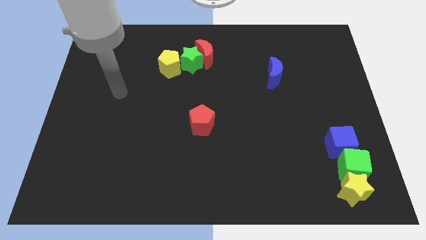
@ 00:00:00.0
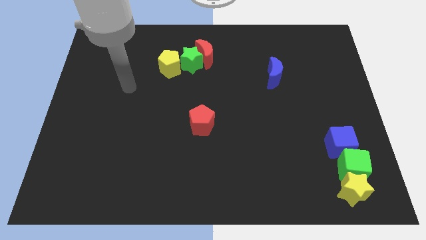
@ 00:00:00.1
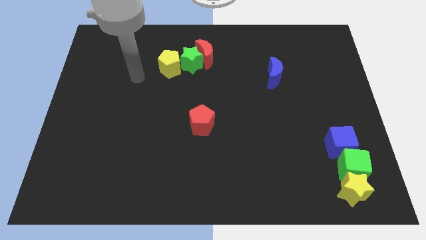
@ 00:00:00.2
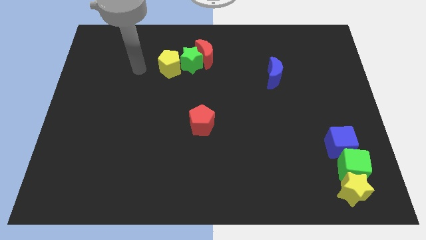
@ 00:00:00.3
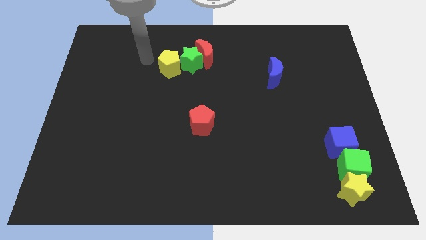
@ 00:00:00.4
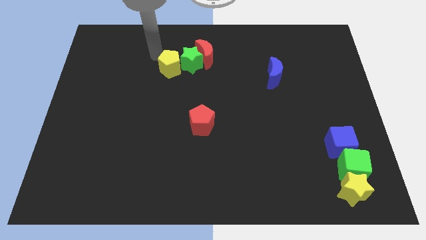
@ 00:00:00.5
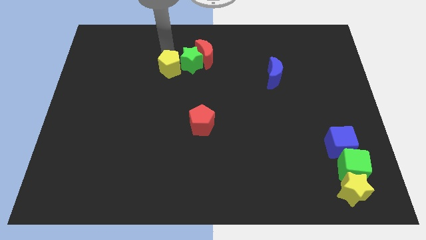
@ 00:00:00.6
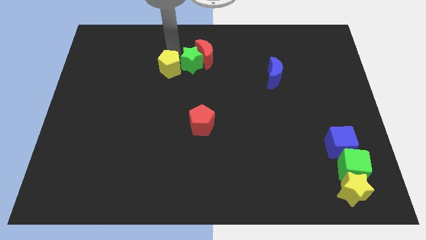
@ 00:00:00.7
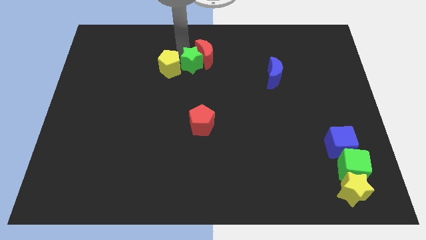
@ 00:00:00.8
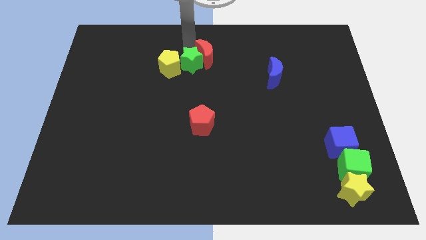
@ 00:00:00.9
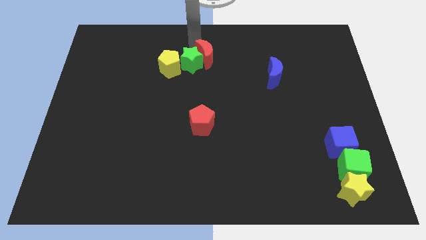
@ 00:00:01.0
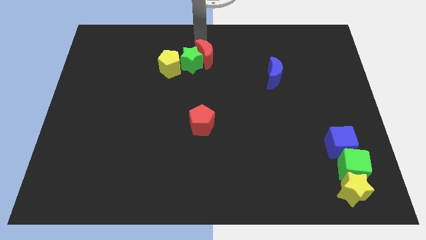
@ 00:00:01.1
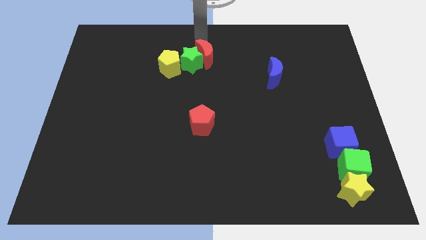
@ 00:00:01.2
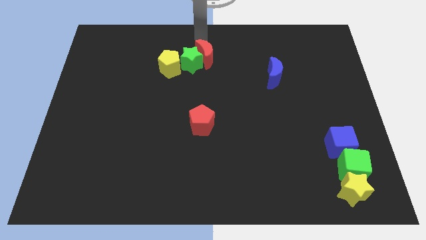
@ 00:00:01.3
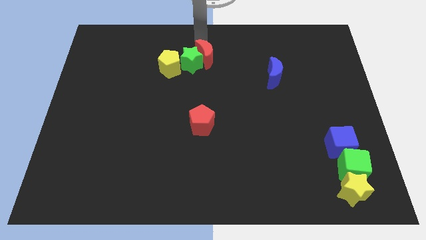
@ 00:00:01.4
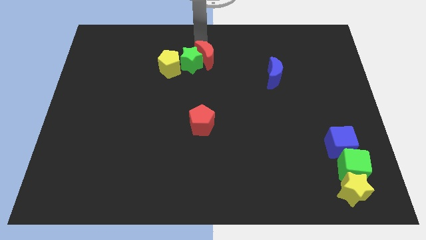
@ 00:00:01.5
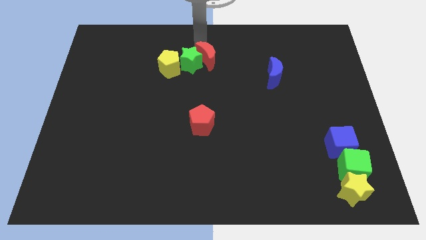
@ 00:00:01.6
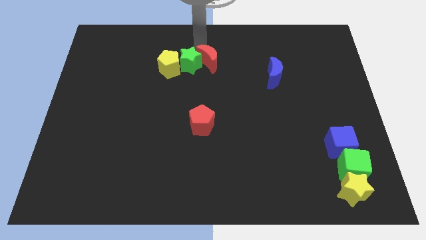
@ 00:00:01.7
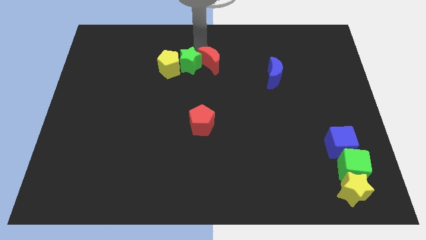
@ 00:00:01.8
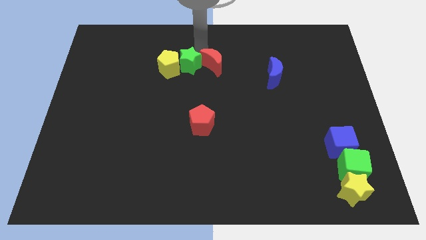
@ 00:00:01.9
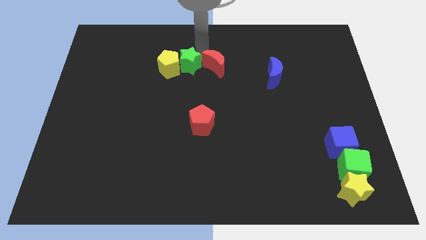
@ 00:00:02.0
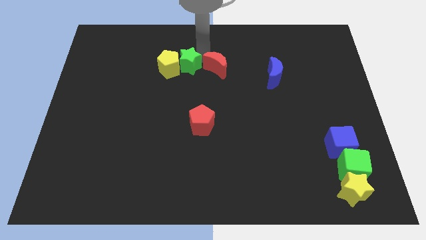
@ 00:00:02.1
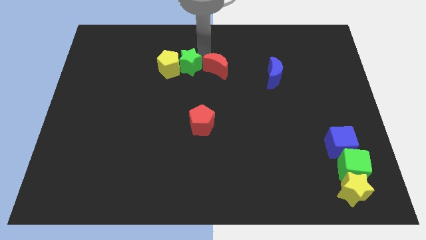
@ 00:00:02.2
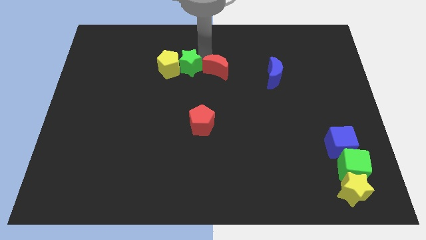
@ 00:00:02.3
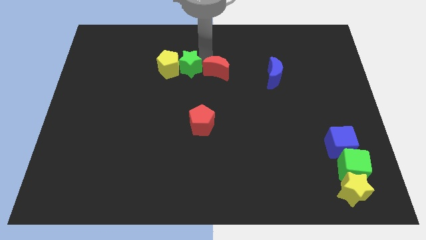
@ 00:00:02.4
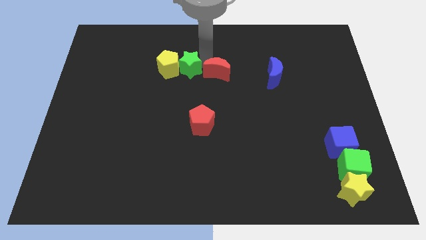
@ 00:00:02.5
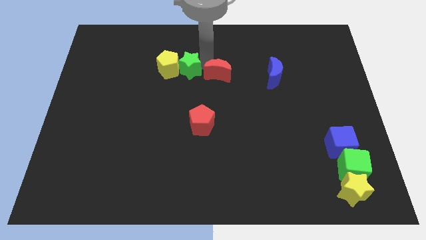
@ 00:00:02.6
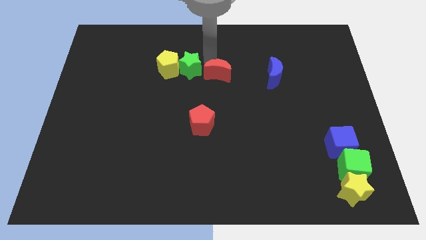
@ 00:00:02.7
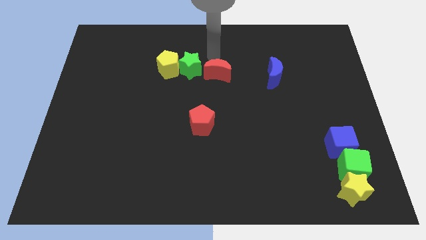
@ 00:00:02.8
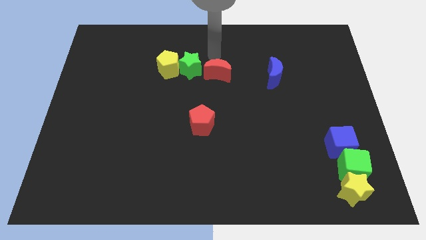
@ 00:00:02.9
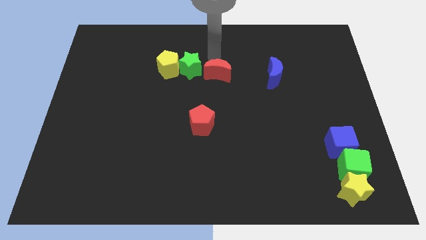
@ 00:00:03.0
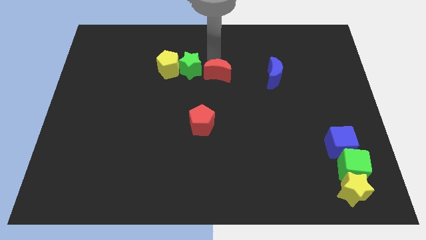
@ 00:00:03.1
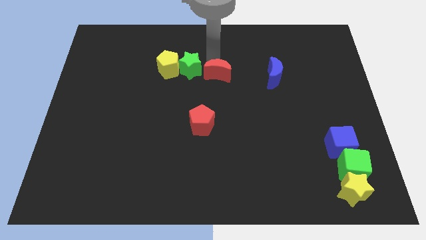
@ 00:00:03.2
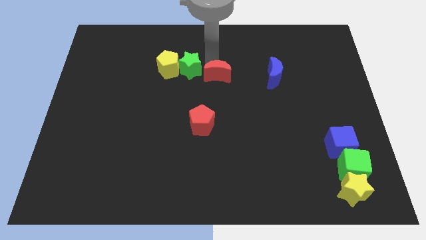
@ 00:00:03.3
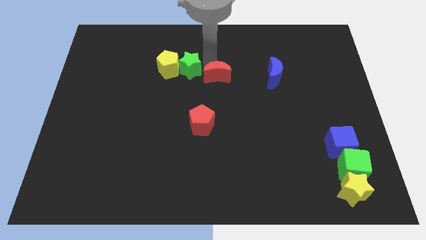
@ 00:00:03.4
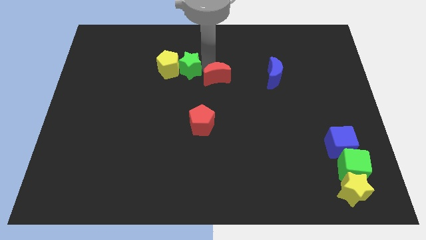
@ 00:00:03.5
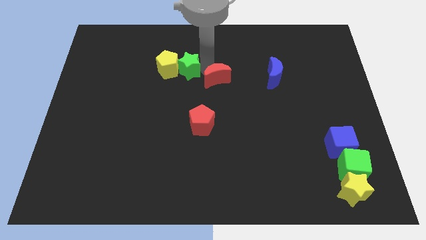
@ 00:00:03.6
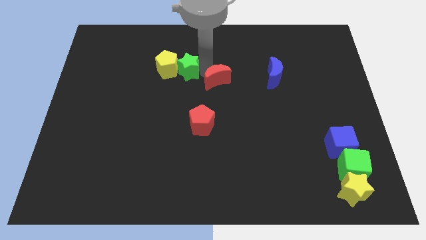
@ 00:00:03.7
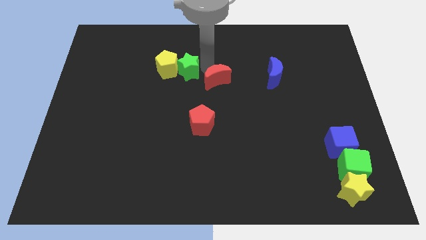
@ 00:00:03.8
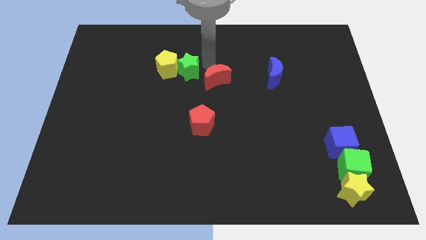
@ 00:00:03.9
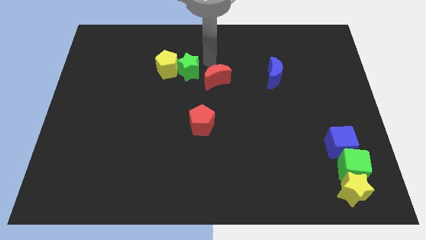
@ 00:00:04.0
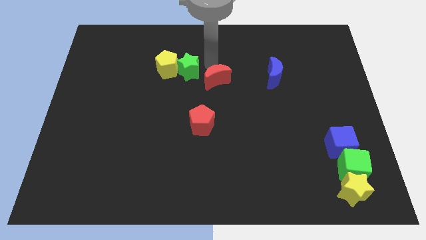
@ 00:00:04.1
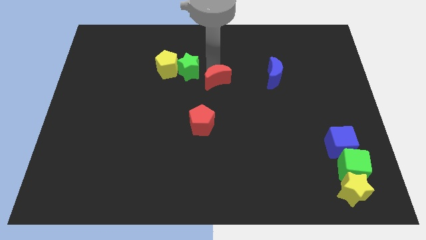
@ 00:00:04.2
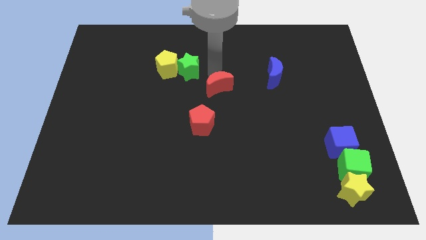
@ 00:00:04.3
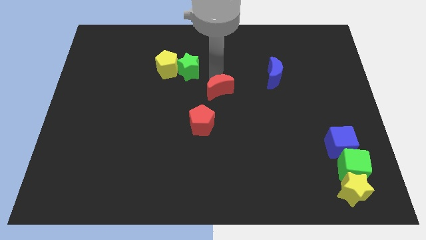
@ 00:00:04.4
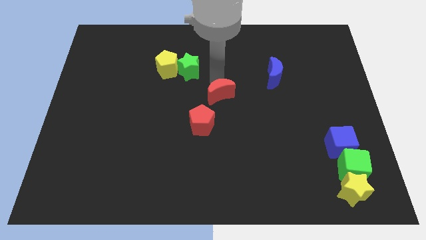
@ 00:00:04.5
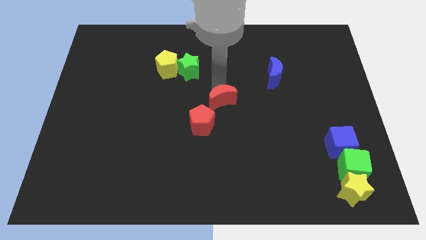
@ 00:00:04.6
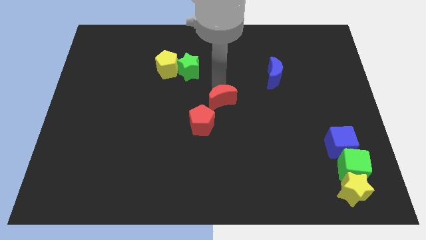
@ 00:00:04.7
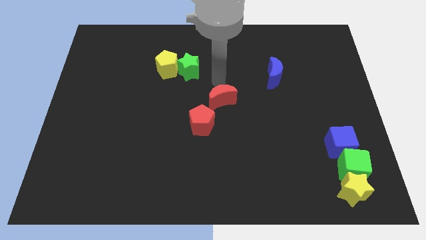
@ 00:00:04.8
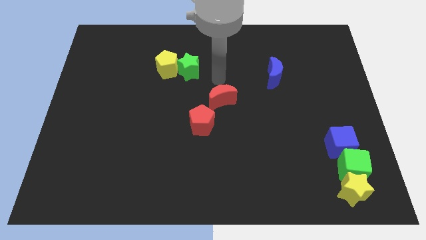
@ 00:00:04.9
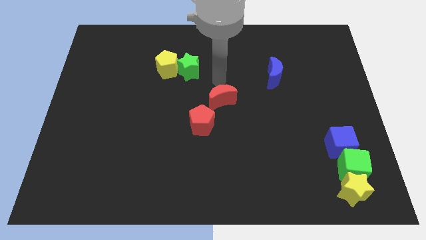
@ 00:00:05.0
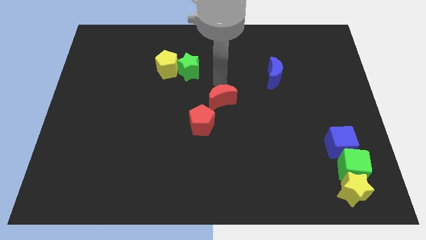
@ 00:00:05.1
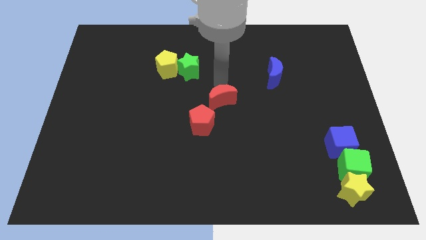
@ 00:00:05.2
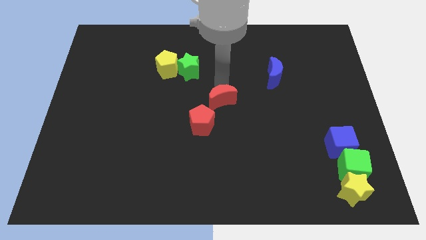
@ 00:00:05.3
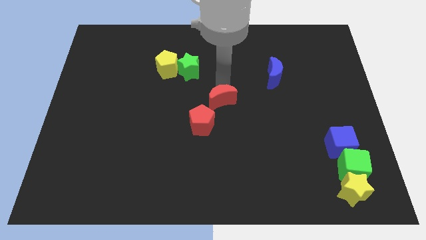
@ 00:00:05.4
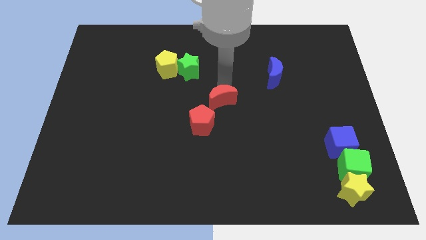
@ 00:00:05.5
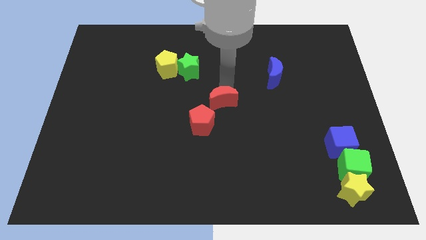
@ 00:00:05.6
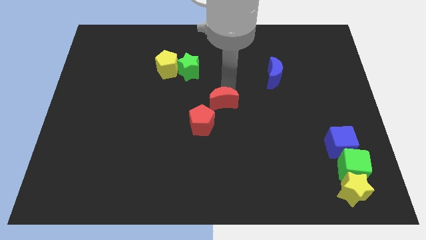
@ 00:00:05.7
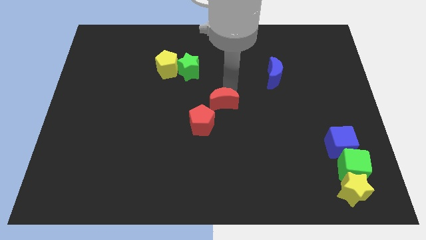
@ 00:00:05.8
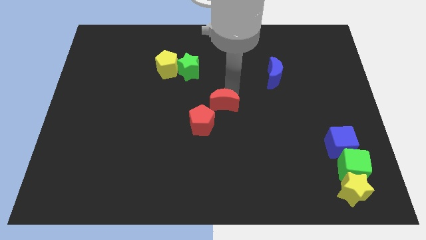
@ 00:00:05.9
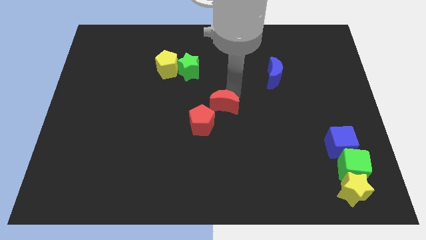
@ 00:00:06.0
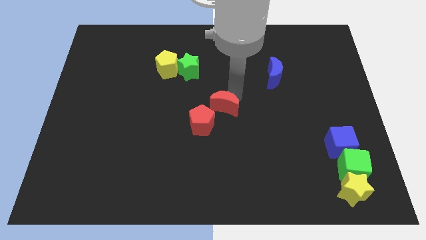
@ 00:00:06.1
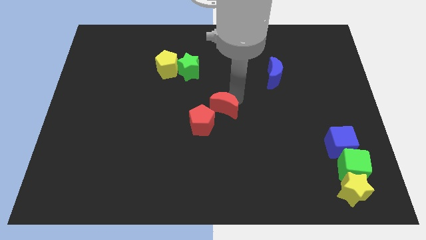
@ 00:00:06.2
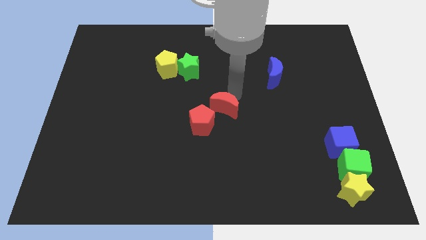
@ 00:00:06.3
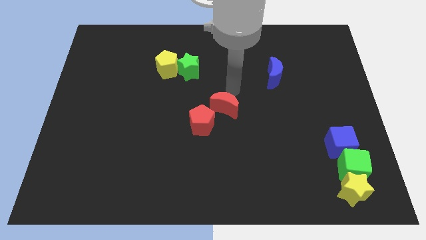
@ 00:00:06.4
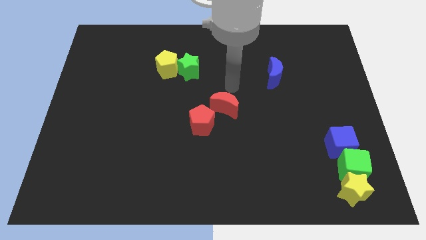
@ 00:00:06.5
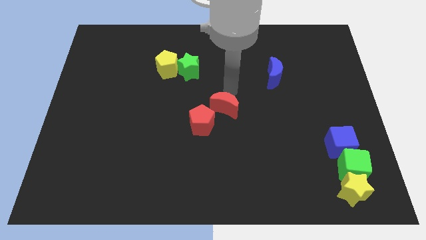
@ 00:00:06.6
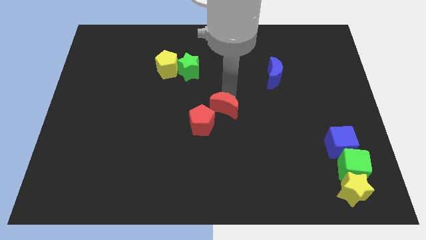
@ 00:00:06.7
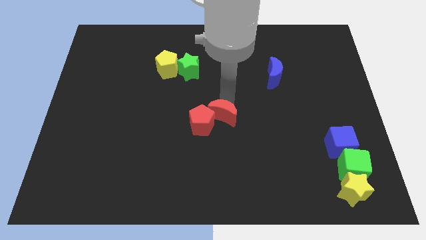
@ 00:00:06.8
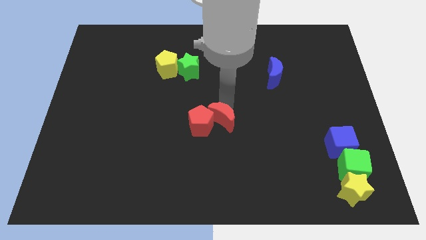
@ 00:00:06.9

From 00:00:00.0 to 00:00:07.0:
move the red moon down

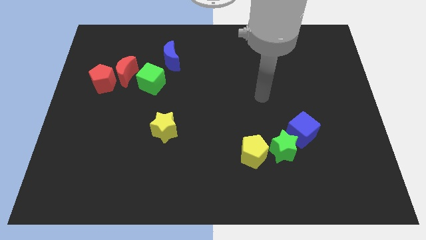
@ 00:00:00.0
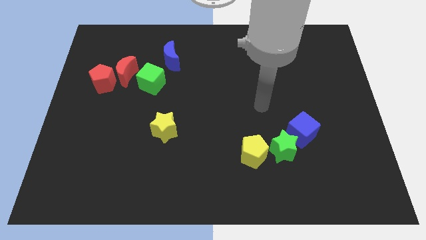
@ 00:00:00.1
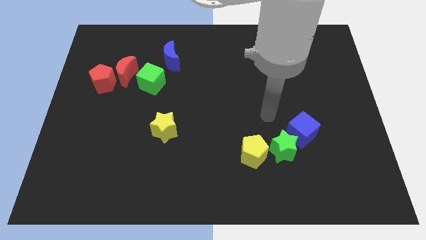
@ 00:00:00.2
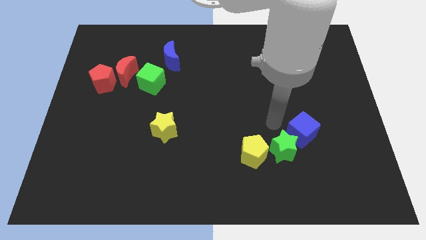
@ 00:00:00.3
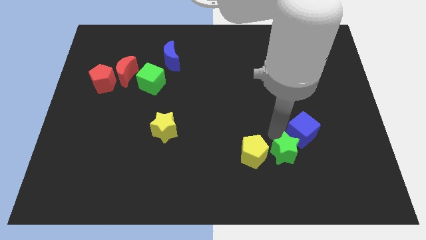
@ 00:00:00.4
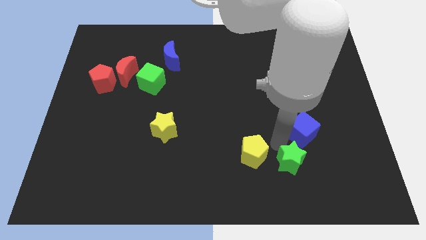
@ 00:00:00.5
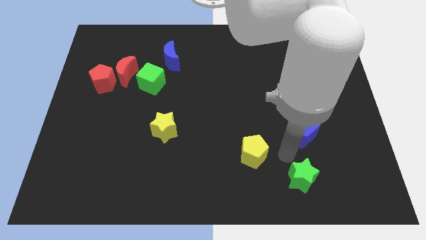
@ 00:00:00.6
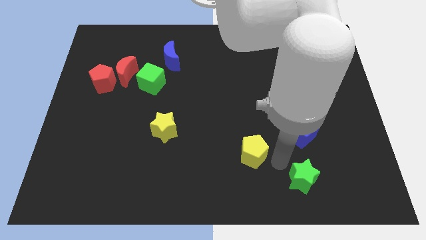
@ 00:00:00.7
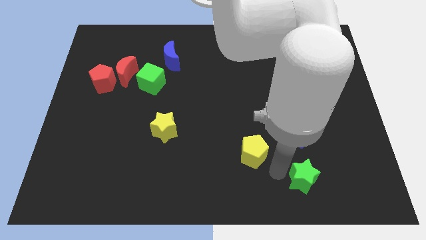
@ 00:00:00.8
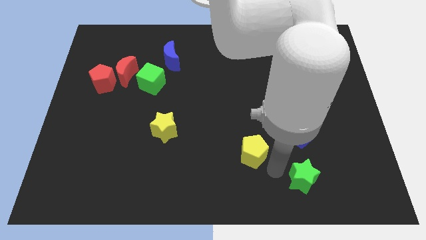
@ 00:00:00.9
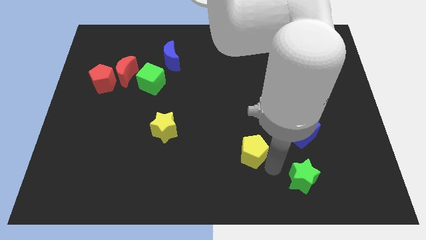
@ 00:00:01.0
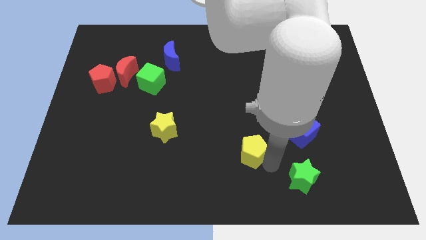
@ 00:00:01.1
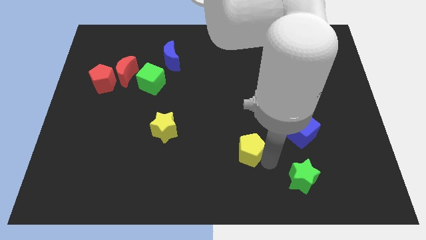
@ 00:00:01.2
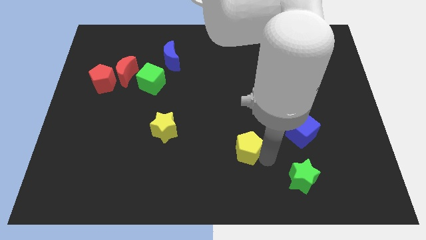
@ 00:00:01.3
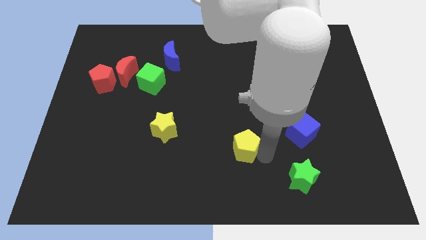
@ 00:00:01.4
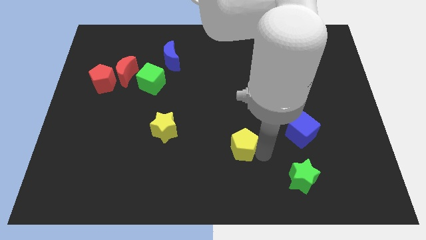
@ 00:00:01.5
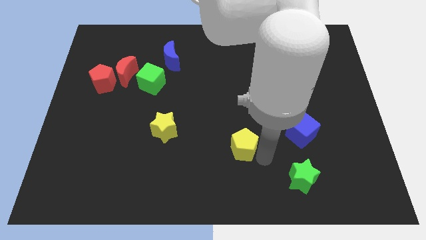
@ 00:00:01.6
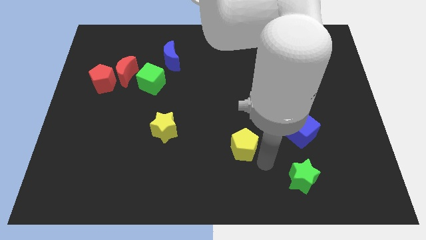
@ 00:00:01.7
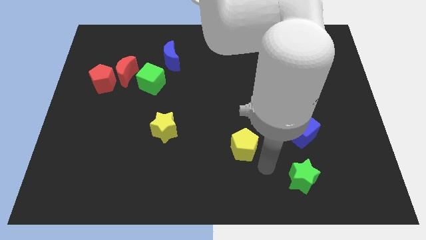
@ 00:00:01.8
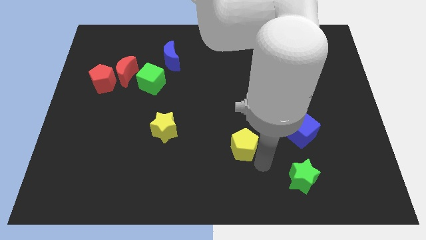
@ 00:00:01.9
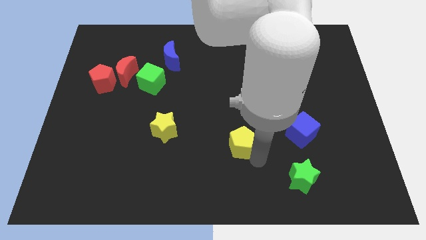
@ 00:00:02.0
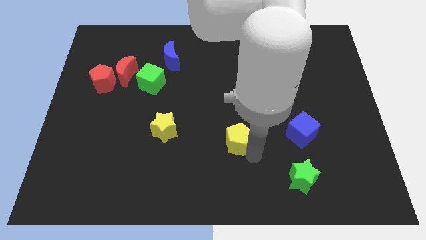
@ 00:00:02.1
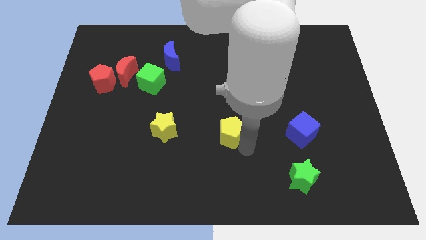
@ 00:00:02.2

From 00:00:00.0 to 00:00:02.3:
slightly slide the yellow pentagon upwards and to the left diagonally
